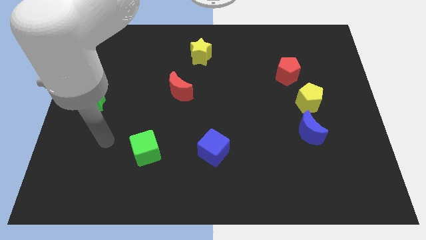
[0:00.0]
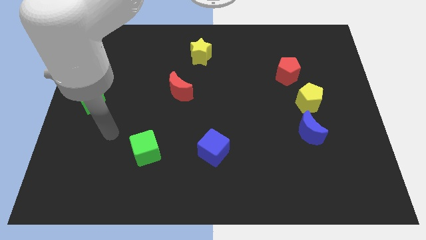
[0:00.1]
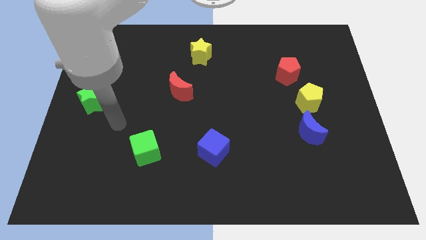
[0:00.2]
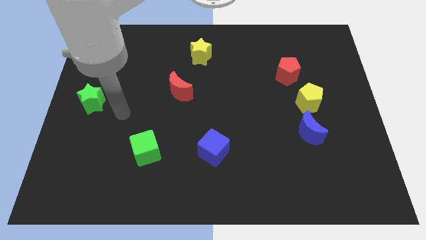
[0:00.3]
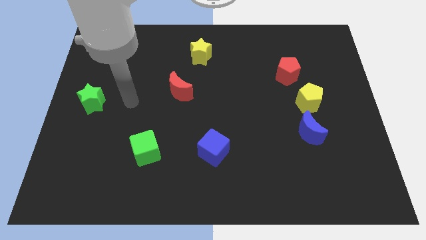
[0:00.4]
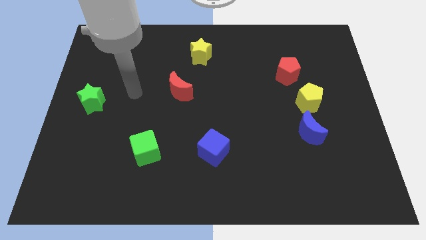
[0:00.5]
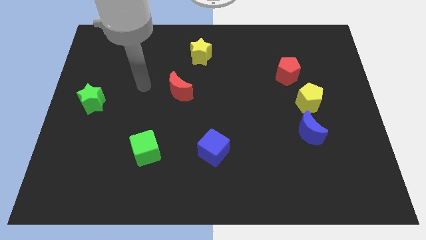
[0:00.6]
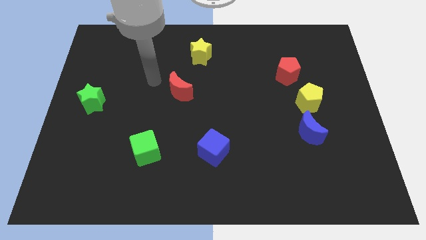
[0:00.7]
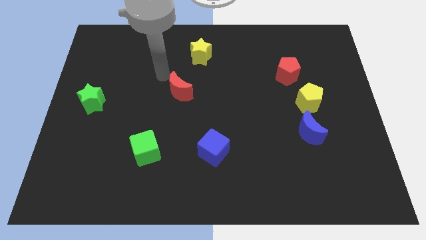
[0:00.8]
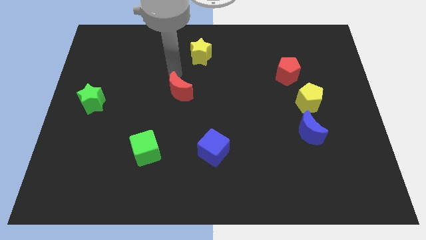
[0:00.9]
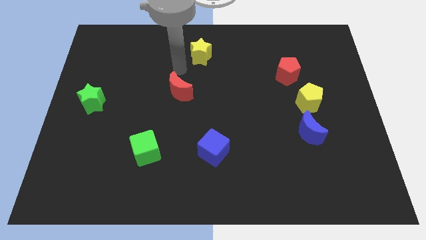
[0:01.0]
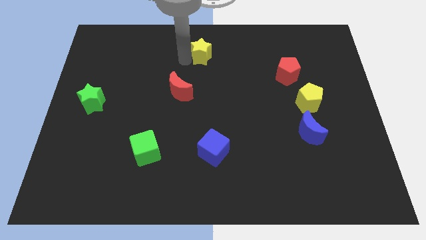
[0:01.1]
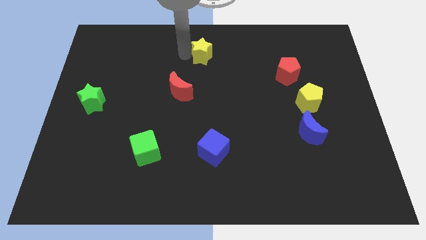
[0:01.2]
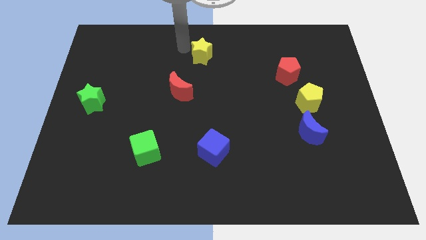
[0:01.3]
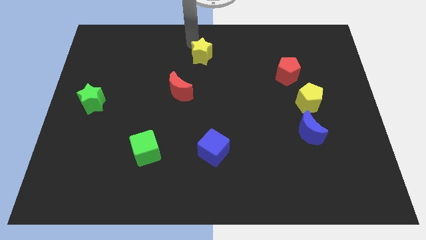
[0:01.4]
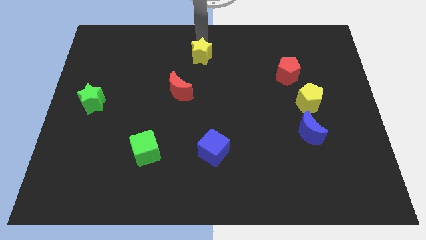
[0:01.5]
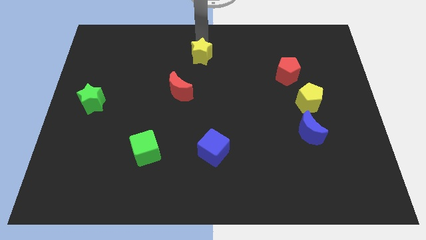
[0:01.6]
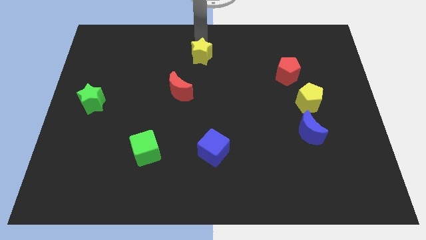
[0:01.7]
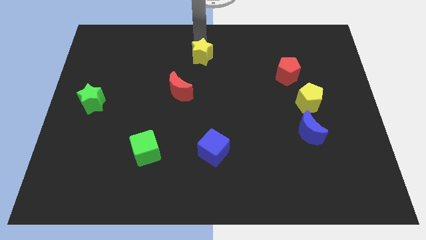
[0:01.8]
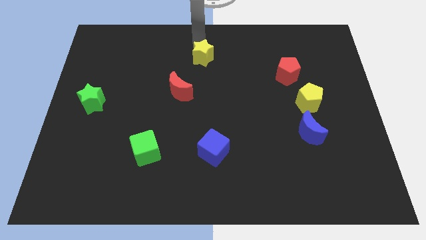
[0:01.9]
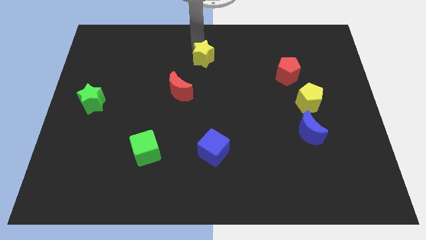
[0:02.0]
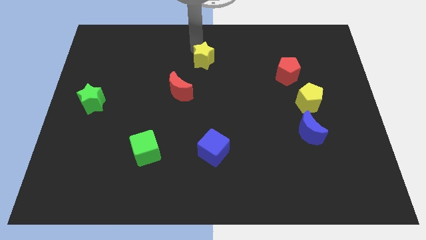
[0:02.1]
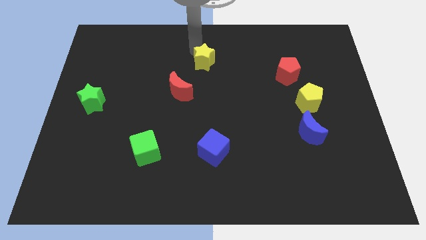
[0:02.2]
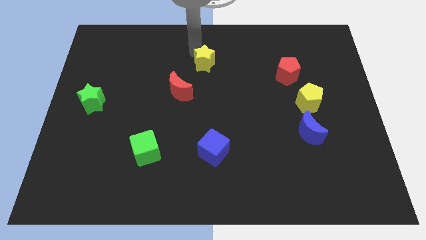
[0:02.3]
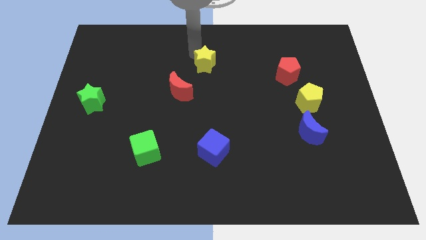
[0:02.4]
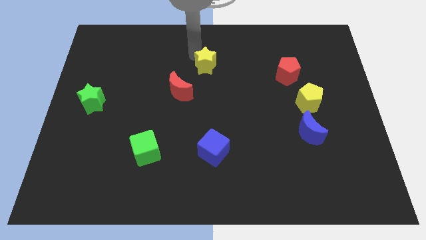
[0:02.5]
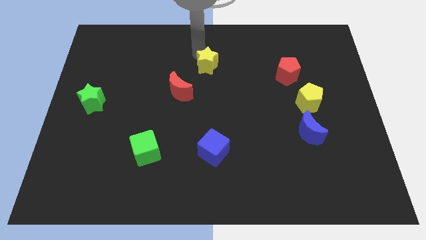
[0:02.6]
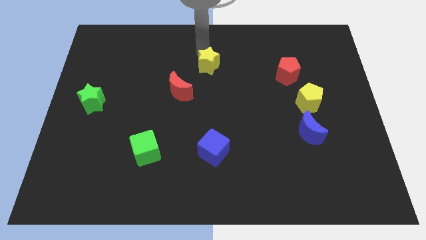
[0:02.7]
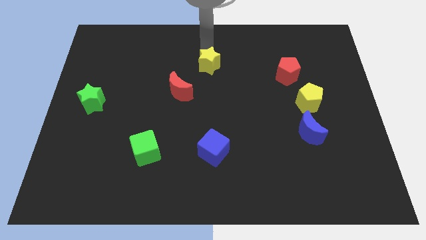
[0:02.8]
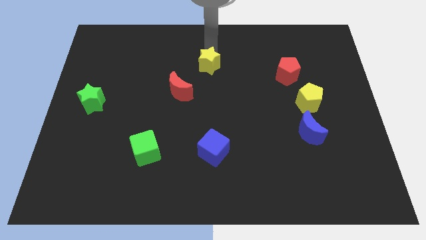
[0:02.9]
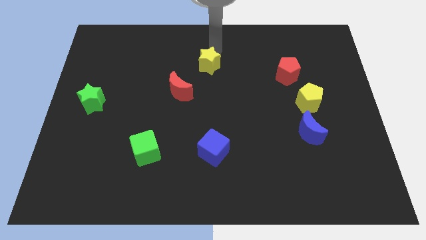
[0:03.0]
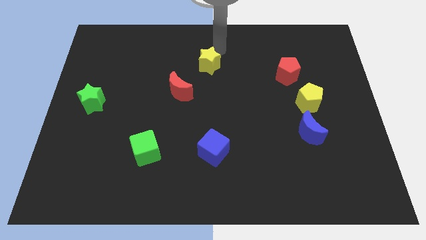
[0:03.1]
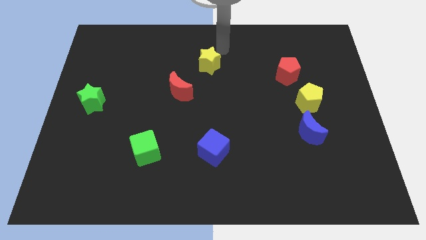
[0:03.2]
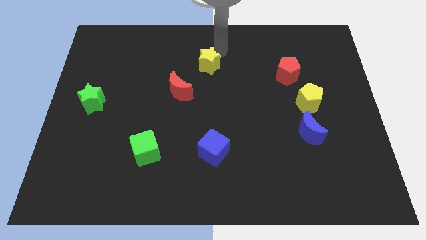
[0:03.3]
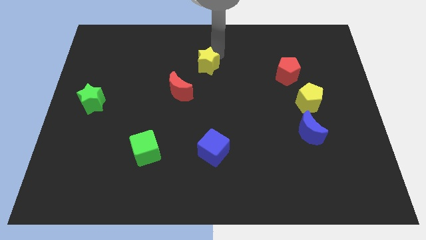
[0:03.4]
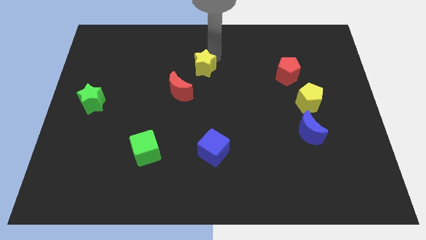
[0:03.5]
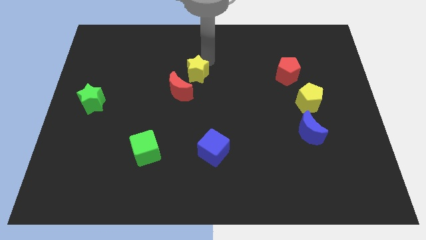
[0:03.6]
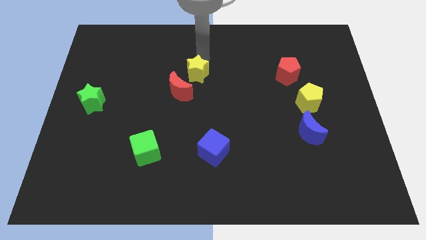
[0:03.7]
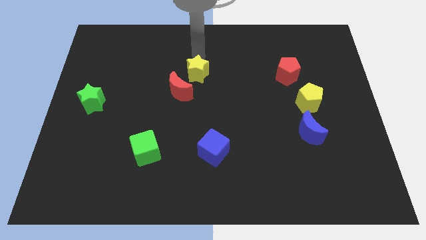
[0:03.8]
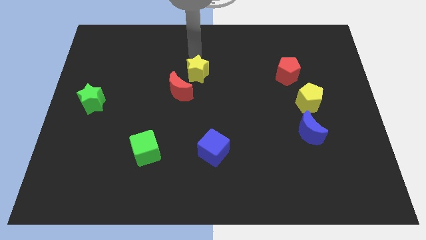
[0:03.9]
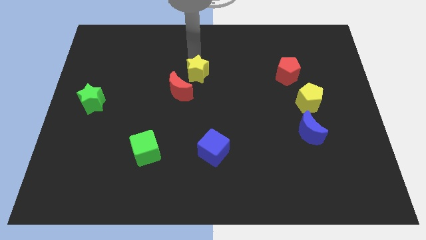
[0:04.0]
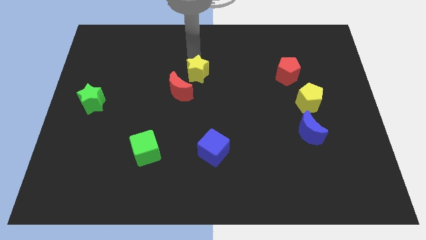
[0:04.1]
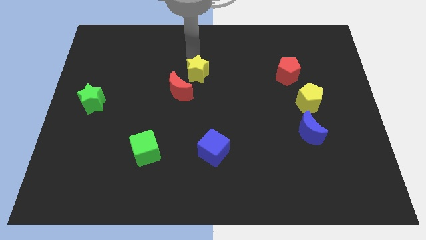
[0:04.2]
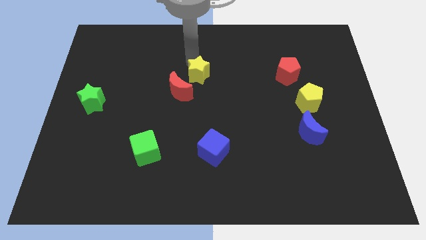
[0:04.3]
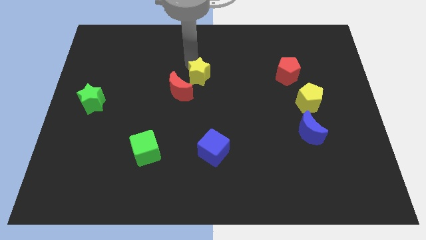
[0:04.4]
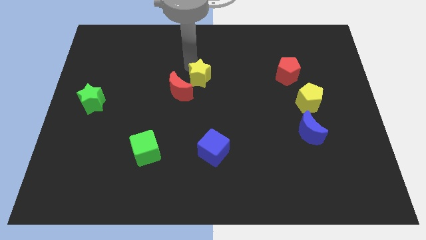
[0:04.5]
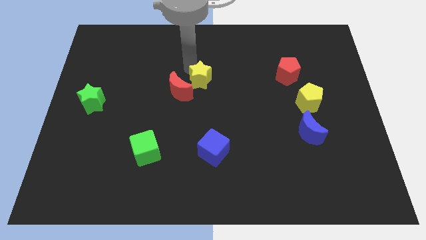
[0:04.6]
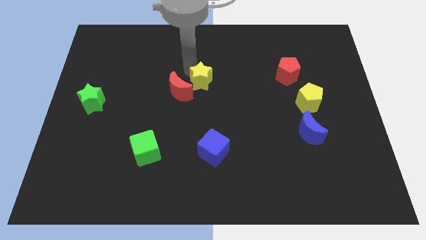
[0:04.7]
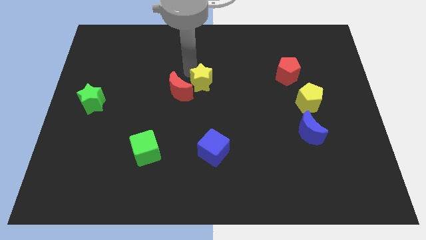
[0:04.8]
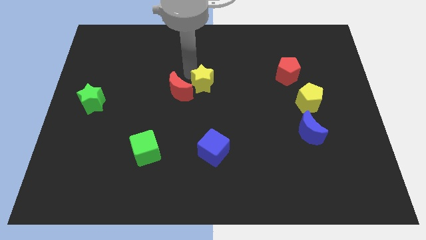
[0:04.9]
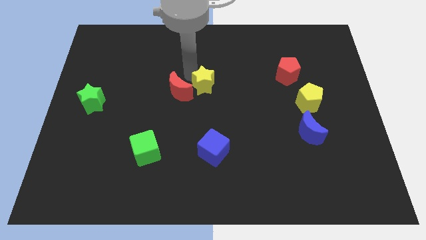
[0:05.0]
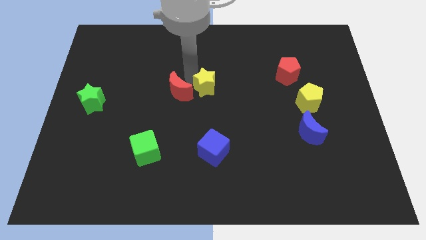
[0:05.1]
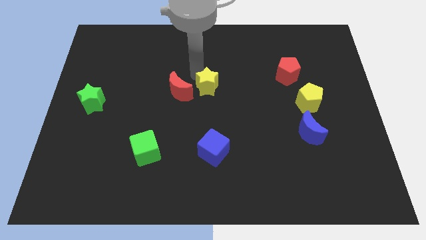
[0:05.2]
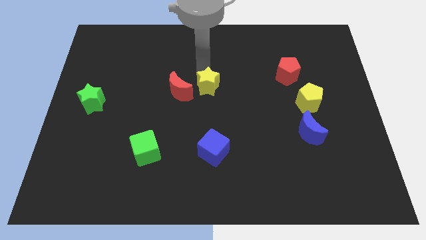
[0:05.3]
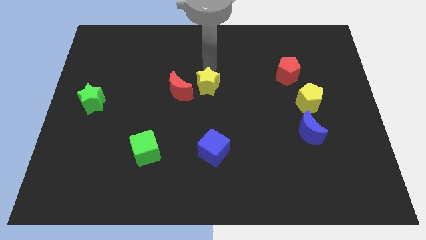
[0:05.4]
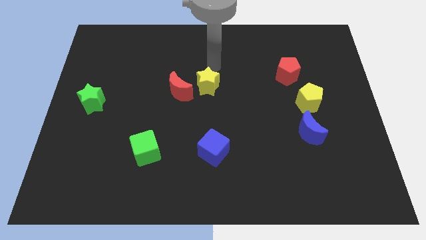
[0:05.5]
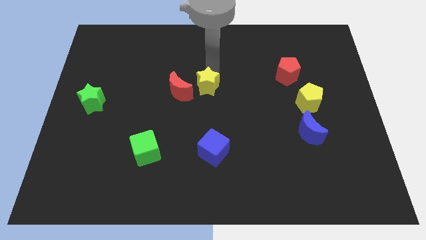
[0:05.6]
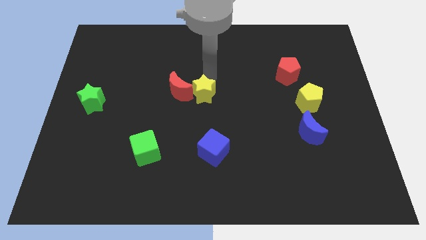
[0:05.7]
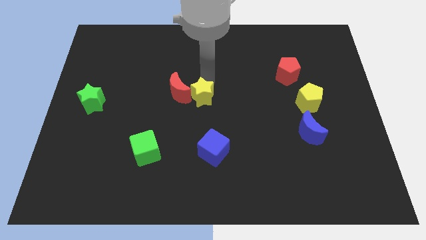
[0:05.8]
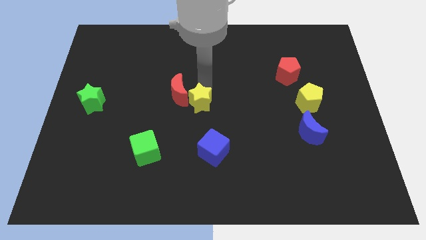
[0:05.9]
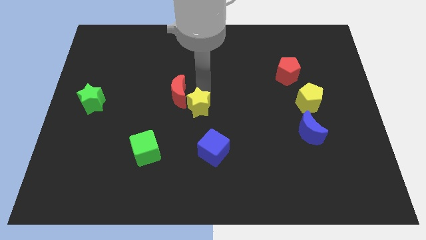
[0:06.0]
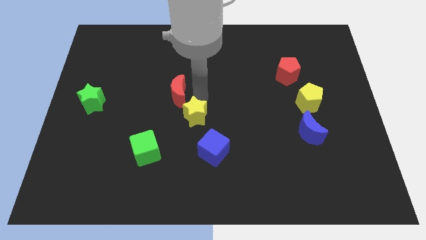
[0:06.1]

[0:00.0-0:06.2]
slide the yellow star down

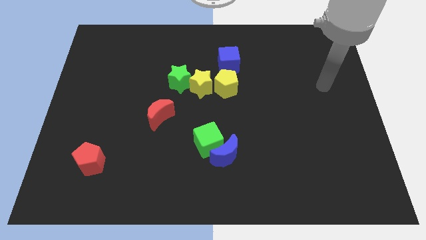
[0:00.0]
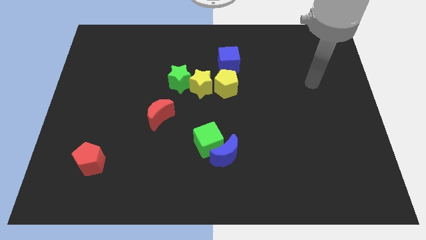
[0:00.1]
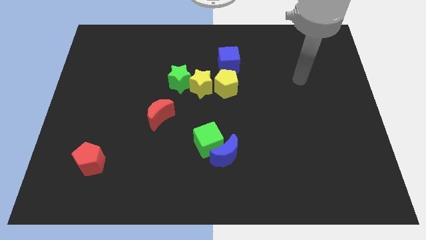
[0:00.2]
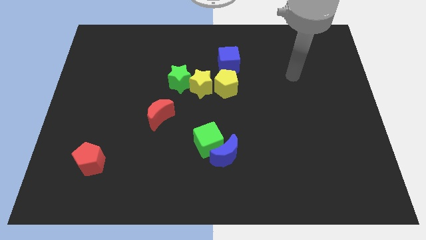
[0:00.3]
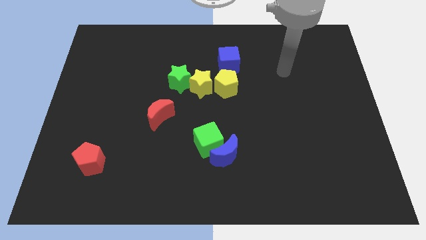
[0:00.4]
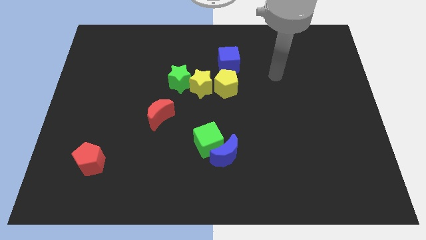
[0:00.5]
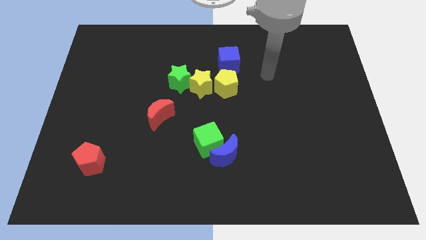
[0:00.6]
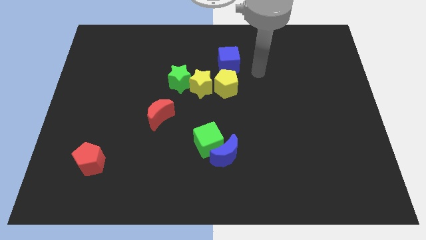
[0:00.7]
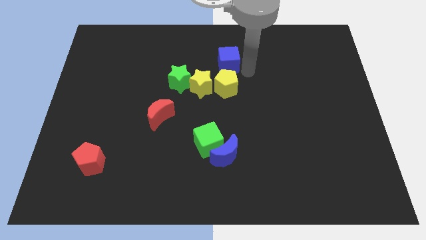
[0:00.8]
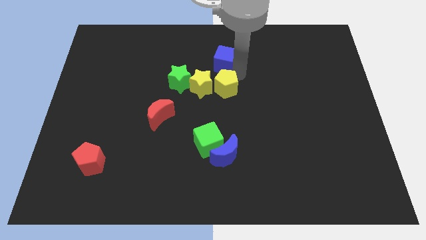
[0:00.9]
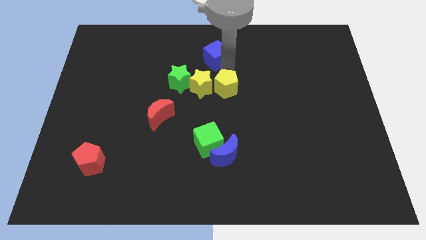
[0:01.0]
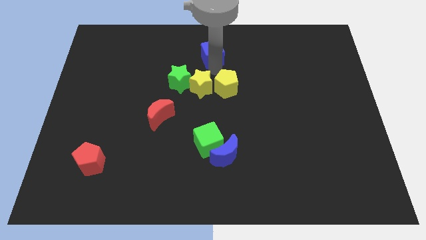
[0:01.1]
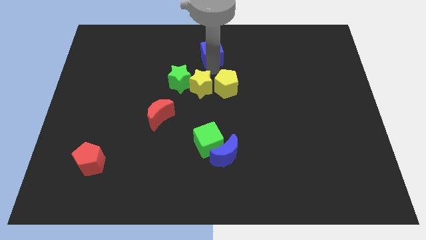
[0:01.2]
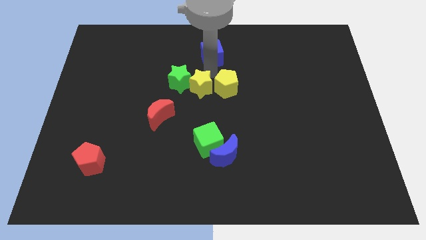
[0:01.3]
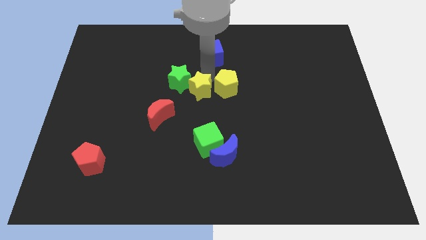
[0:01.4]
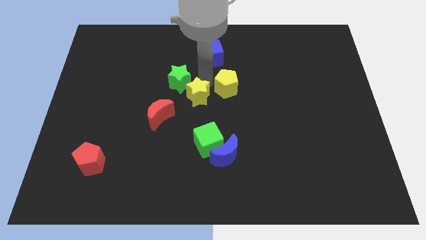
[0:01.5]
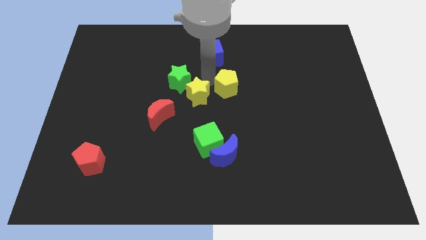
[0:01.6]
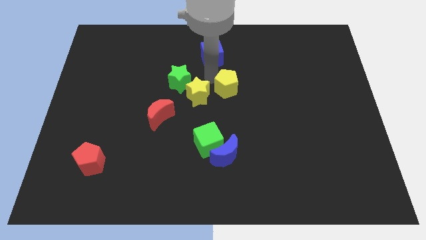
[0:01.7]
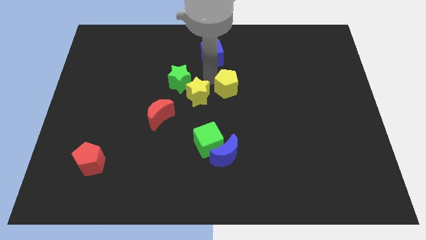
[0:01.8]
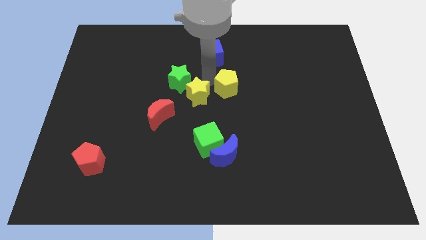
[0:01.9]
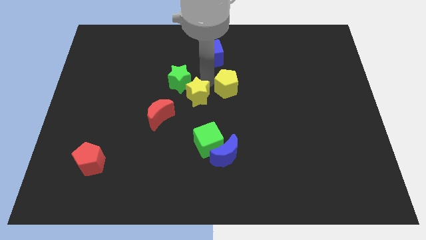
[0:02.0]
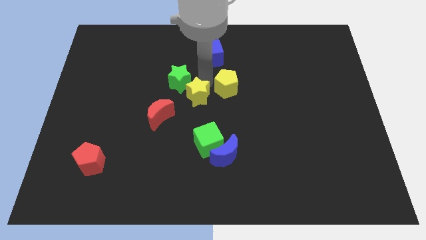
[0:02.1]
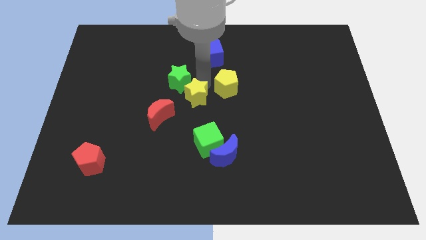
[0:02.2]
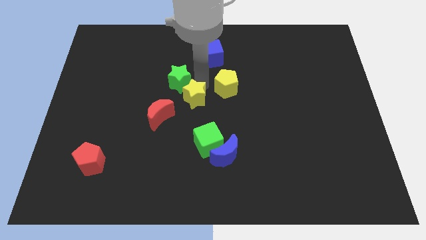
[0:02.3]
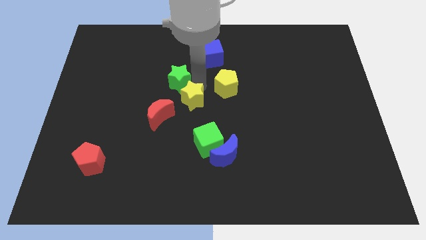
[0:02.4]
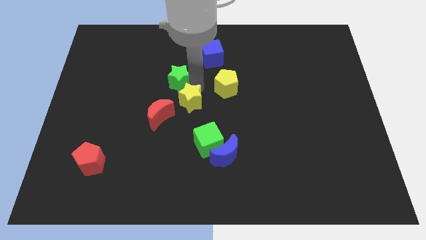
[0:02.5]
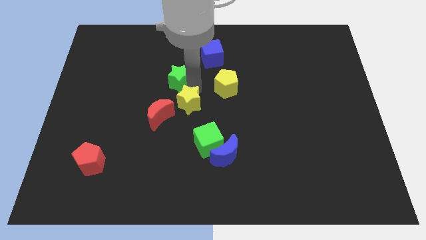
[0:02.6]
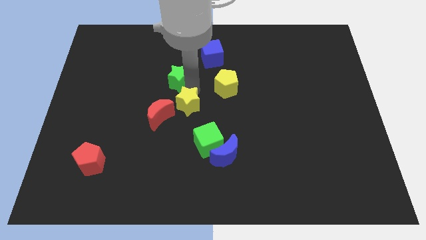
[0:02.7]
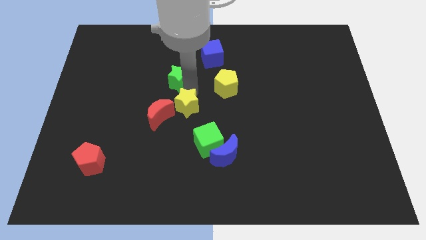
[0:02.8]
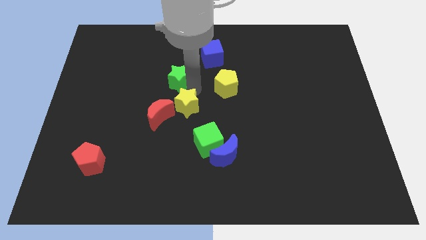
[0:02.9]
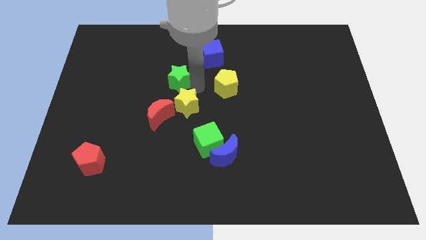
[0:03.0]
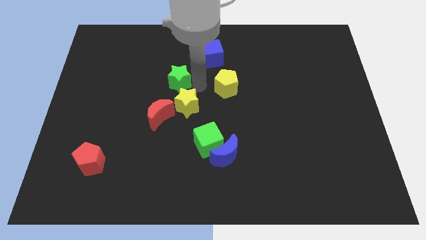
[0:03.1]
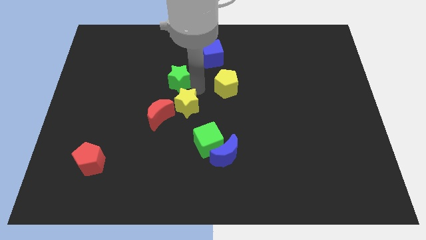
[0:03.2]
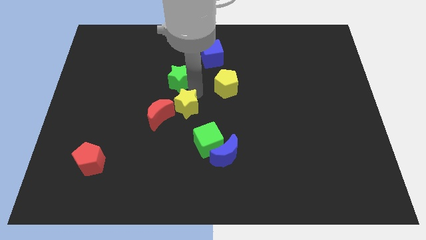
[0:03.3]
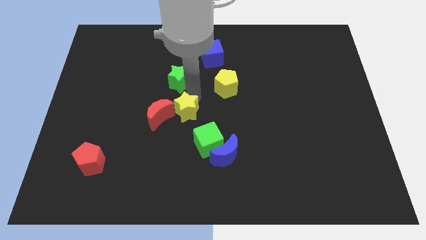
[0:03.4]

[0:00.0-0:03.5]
move the yellow star downwards and left diagonally a little
